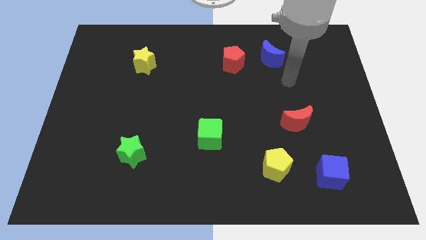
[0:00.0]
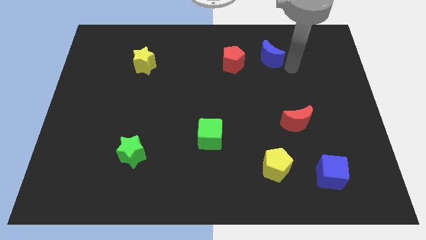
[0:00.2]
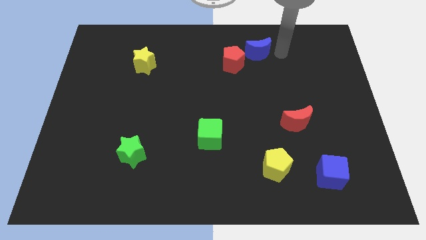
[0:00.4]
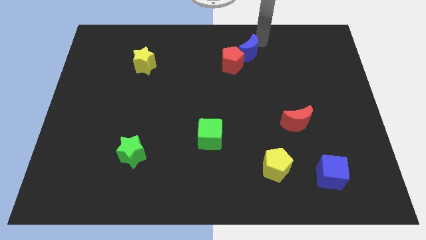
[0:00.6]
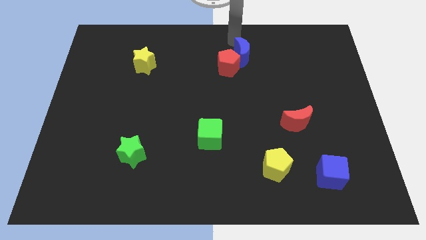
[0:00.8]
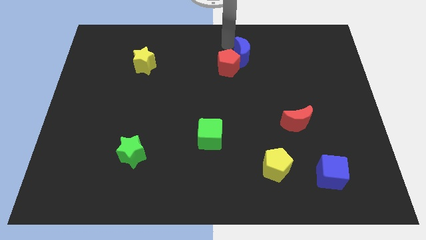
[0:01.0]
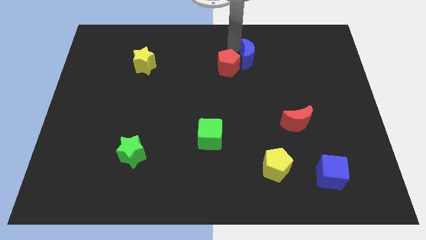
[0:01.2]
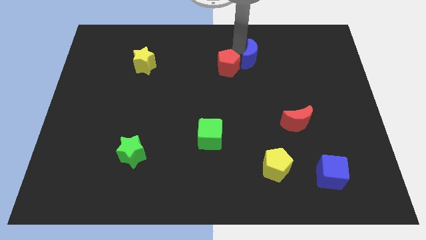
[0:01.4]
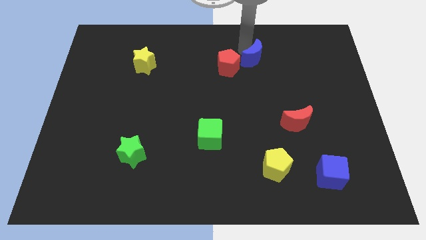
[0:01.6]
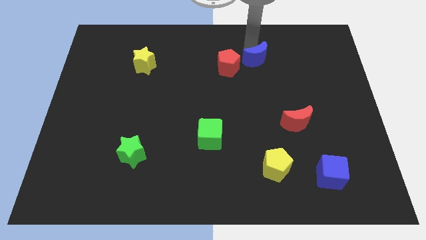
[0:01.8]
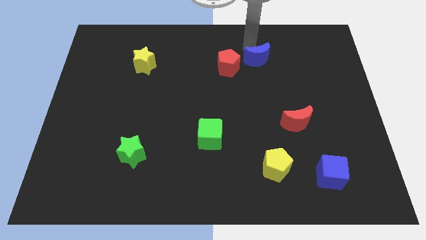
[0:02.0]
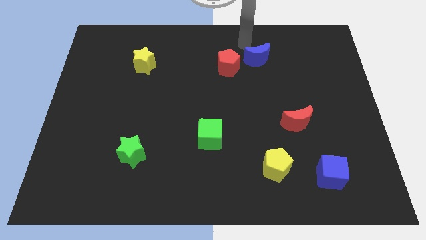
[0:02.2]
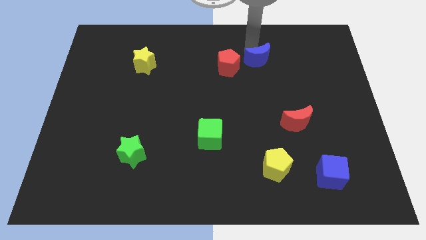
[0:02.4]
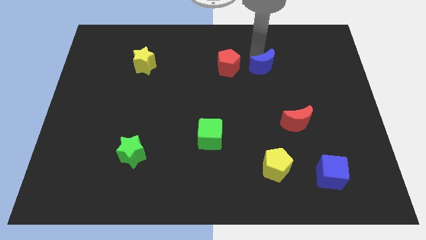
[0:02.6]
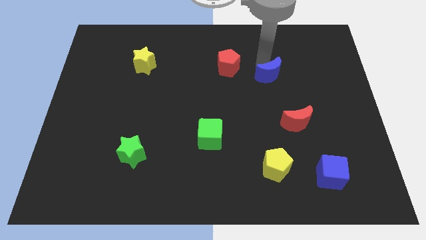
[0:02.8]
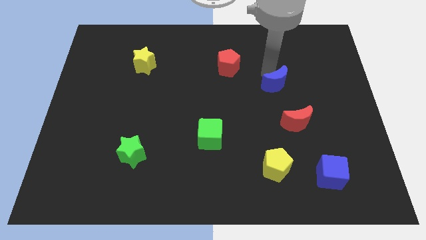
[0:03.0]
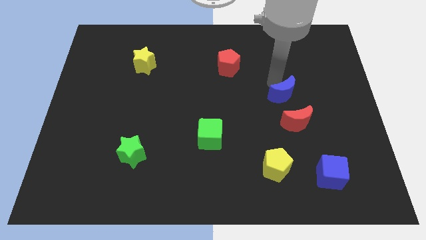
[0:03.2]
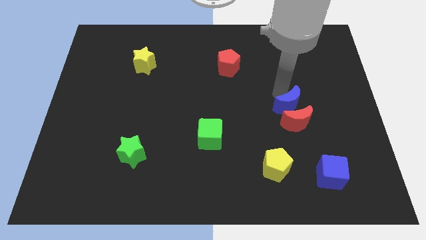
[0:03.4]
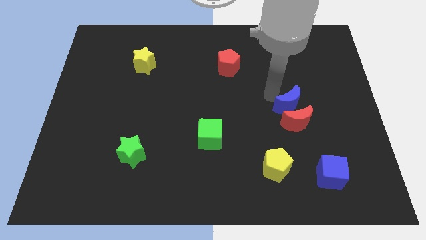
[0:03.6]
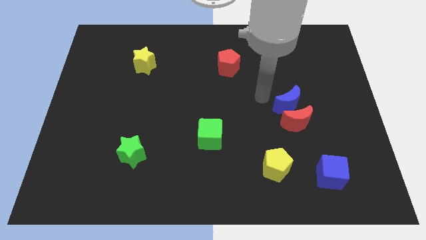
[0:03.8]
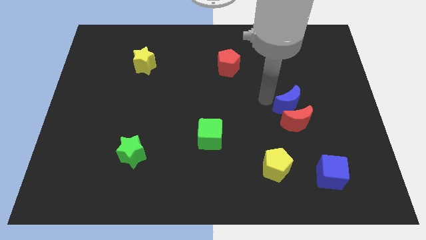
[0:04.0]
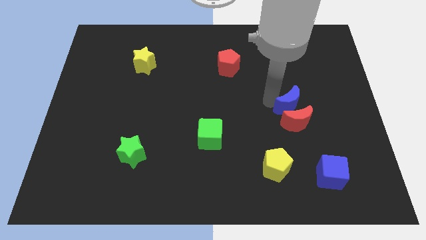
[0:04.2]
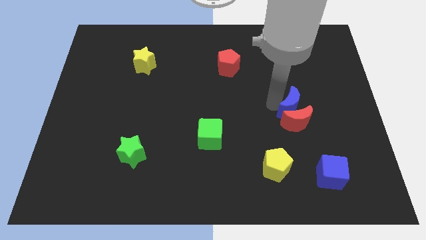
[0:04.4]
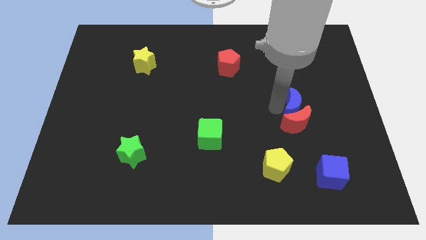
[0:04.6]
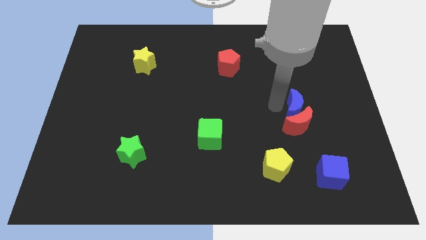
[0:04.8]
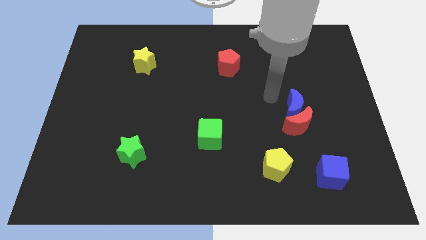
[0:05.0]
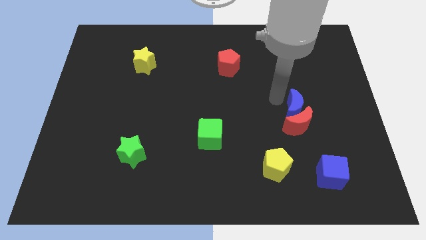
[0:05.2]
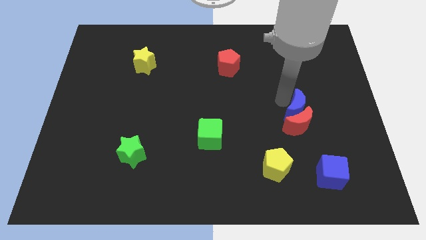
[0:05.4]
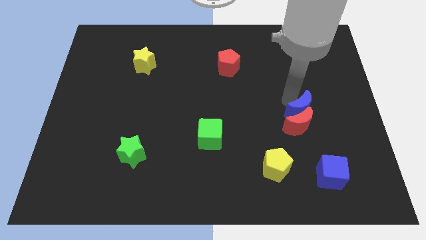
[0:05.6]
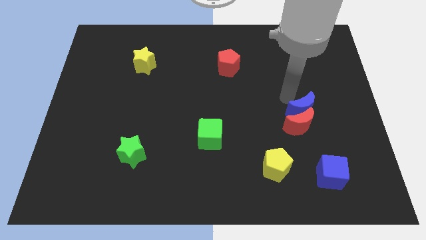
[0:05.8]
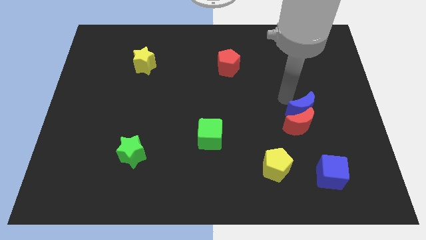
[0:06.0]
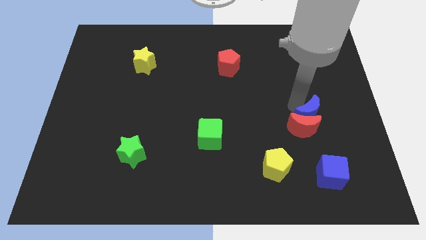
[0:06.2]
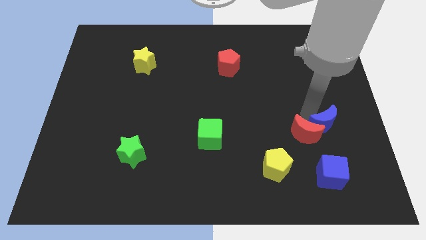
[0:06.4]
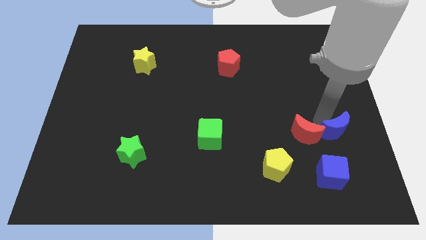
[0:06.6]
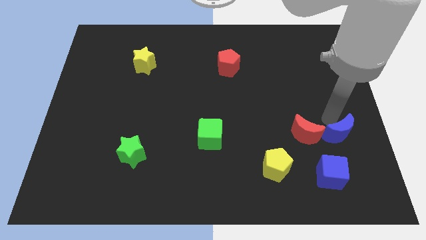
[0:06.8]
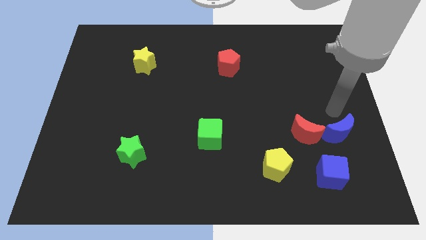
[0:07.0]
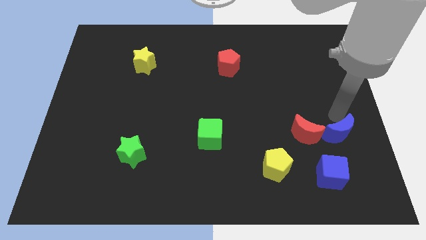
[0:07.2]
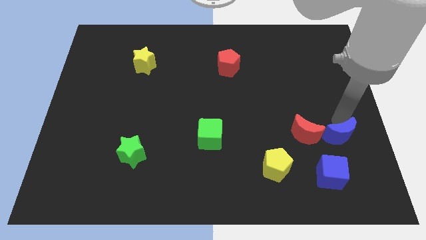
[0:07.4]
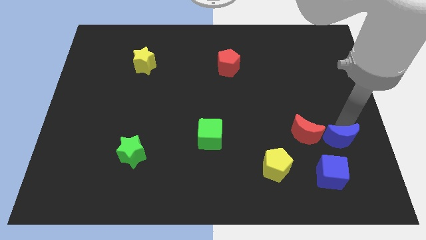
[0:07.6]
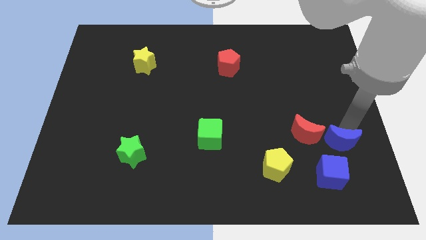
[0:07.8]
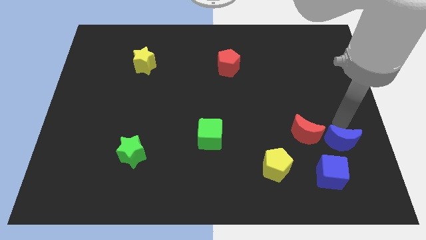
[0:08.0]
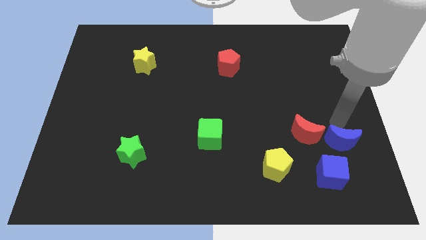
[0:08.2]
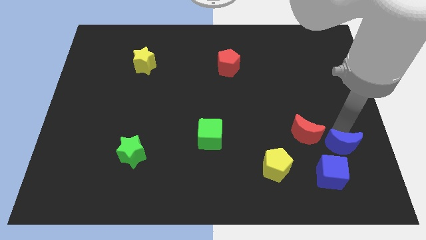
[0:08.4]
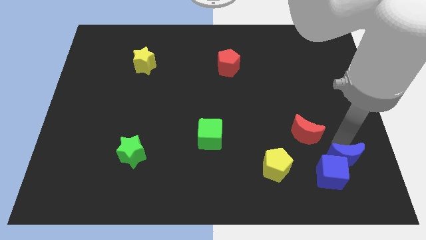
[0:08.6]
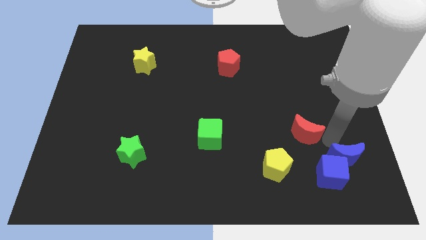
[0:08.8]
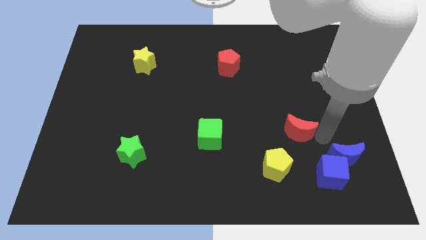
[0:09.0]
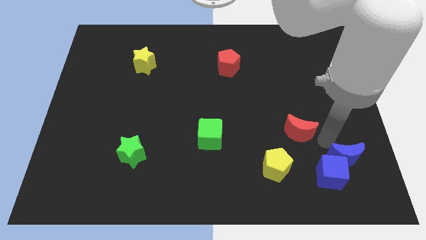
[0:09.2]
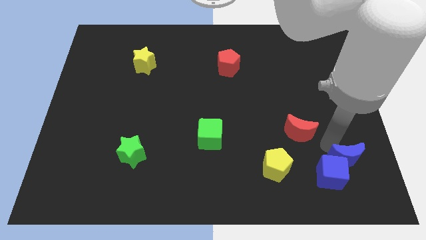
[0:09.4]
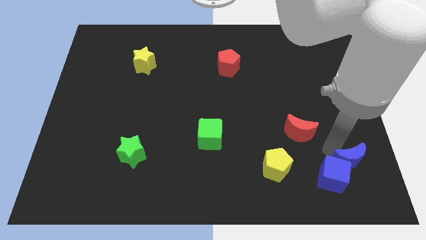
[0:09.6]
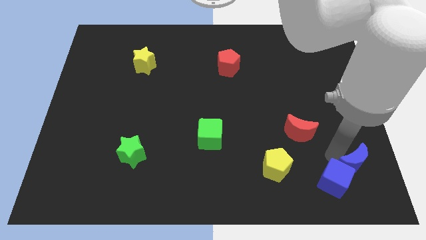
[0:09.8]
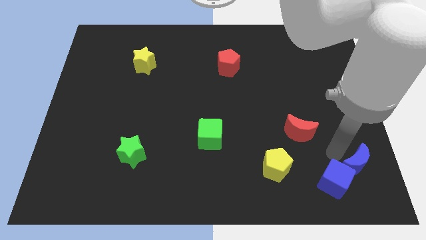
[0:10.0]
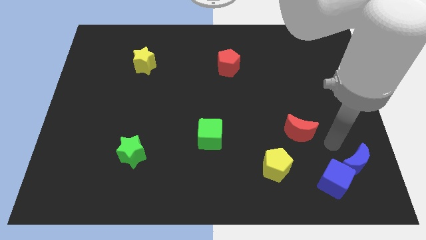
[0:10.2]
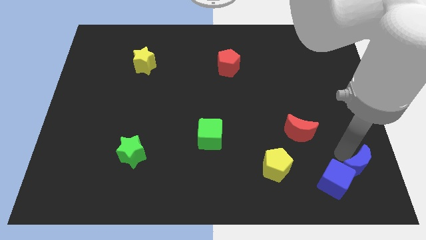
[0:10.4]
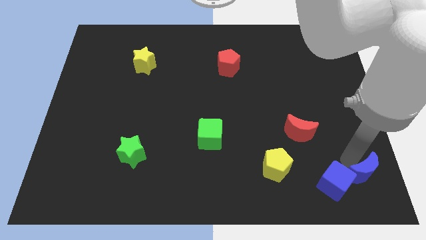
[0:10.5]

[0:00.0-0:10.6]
move the blue moon to the bottom right of the board

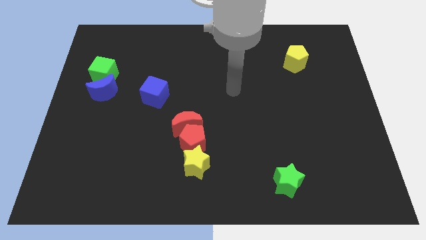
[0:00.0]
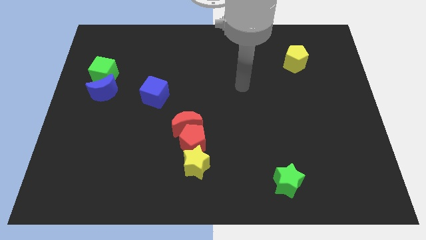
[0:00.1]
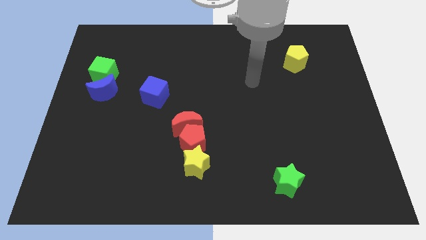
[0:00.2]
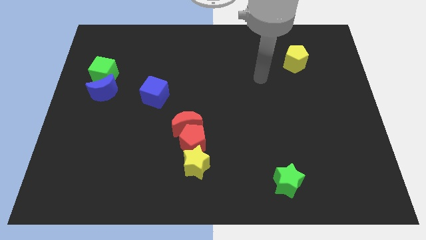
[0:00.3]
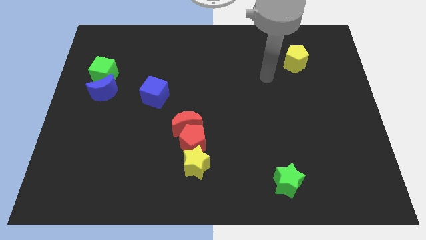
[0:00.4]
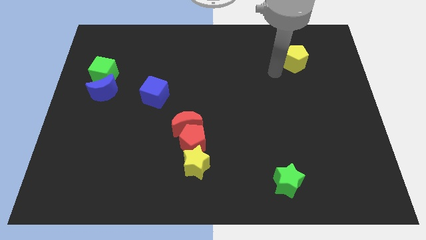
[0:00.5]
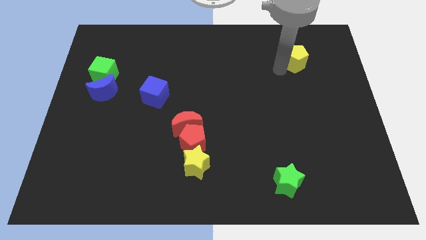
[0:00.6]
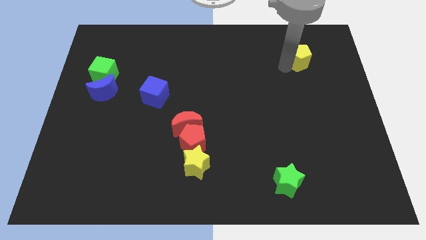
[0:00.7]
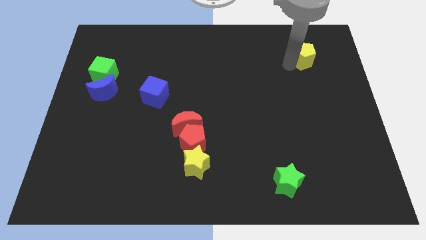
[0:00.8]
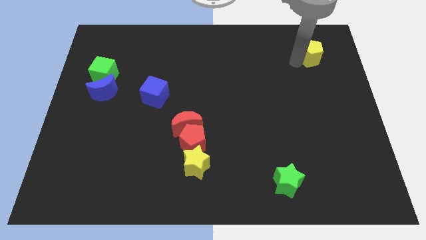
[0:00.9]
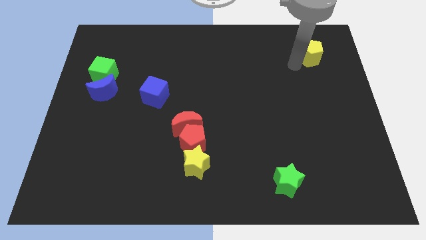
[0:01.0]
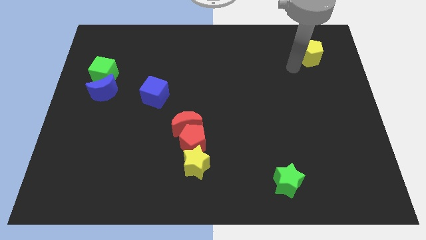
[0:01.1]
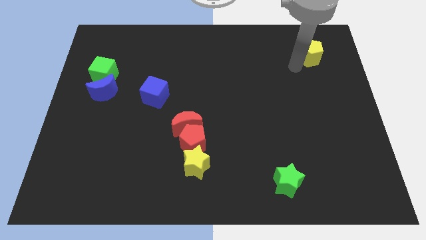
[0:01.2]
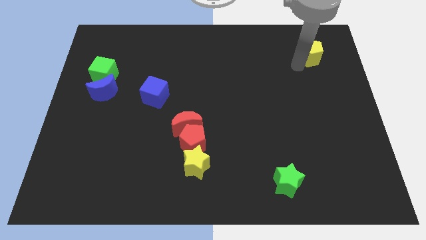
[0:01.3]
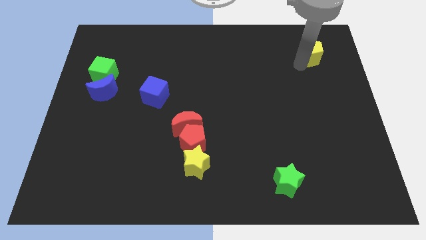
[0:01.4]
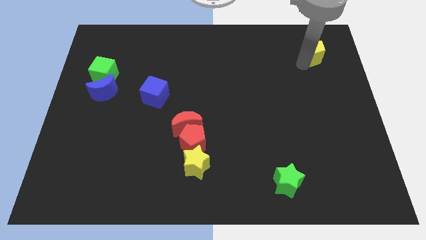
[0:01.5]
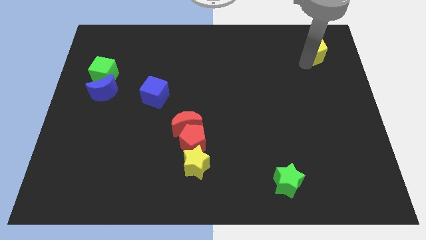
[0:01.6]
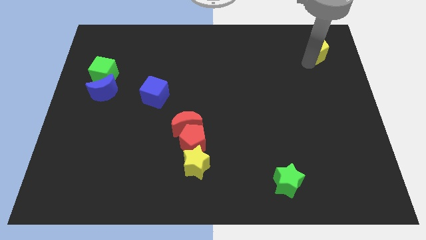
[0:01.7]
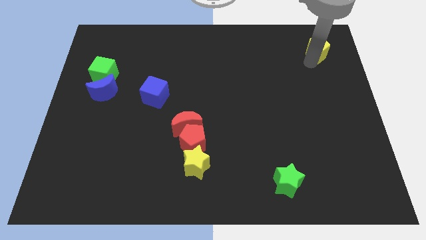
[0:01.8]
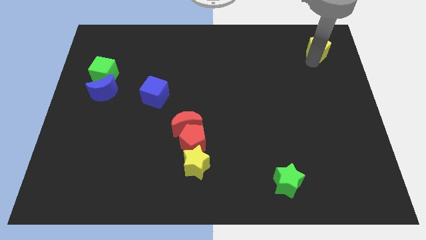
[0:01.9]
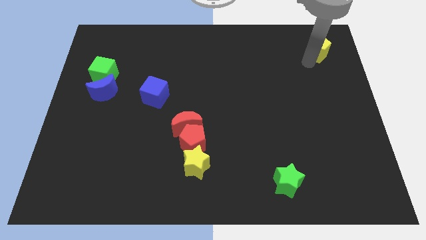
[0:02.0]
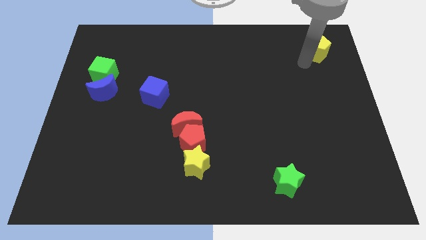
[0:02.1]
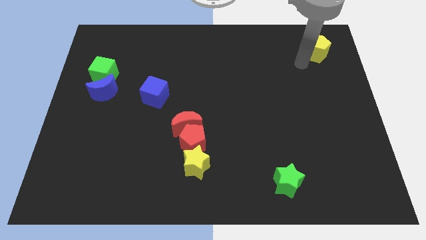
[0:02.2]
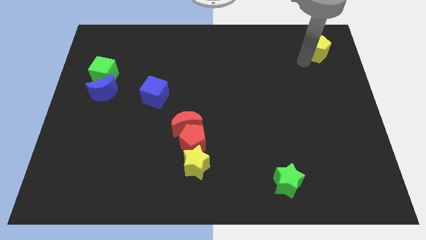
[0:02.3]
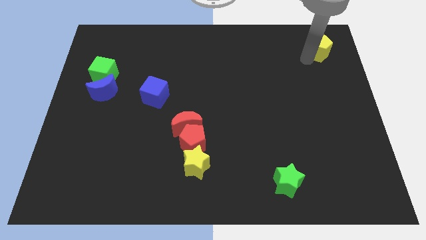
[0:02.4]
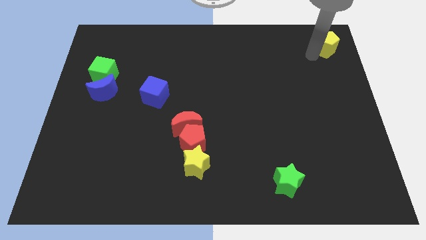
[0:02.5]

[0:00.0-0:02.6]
slide the yellow pentagon to the top right
